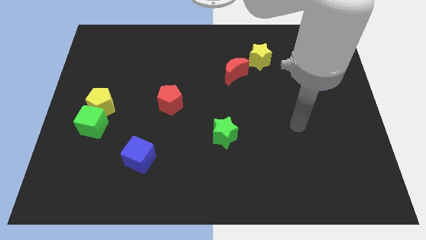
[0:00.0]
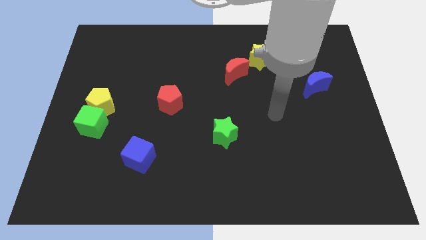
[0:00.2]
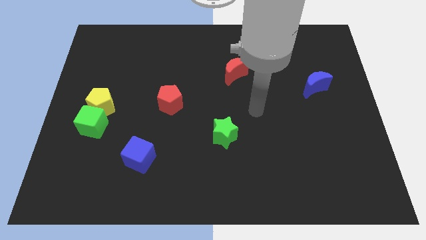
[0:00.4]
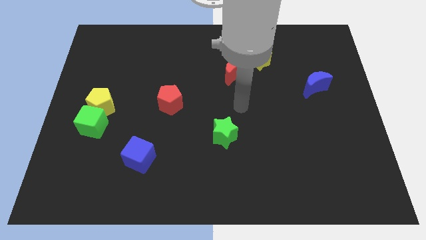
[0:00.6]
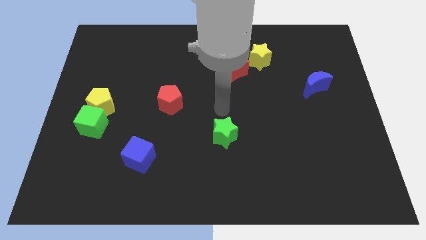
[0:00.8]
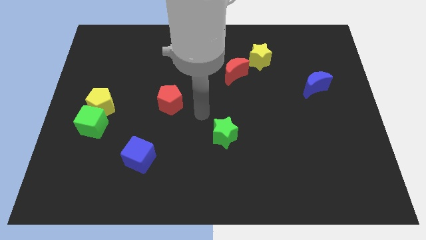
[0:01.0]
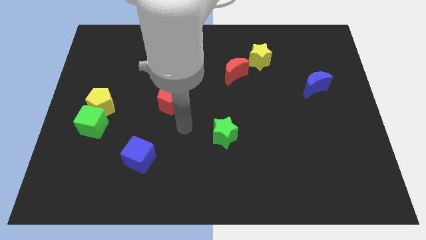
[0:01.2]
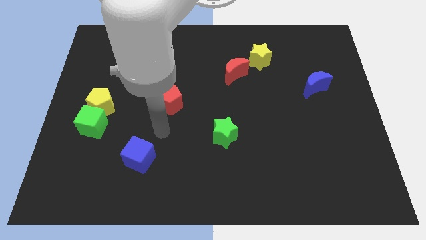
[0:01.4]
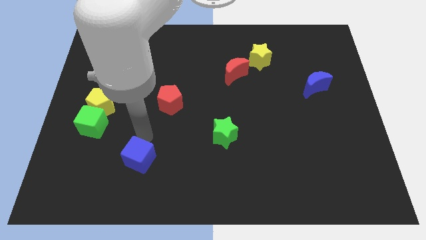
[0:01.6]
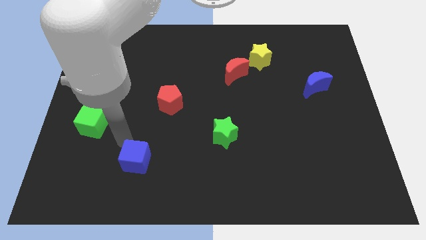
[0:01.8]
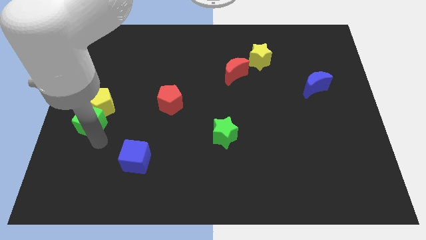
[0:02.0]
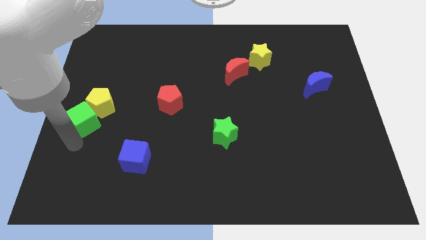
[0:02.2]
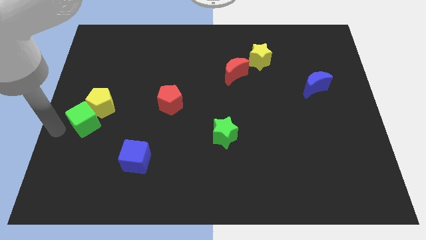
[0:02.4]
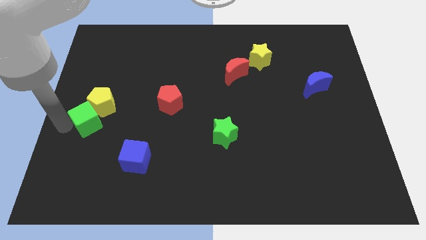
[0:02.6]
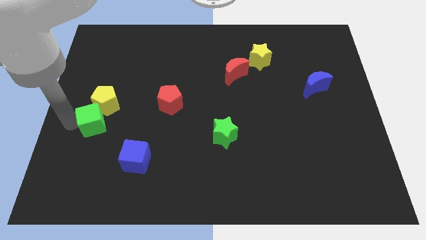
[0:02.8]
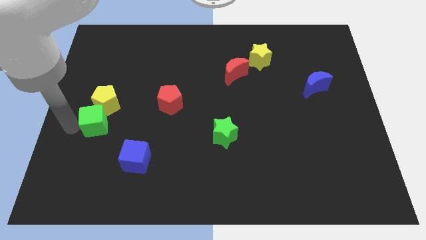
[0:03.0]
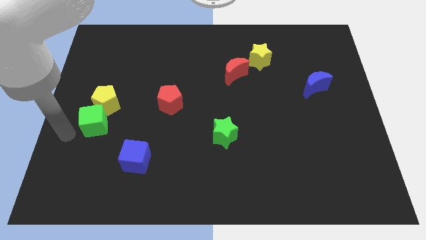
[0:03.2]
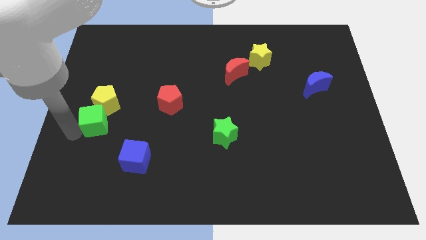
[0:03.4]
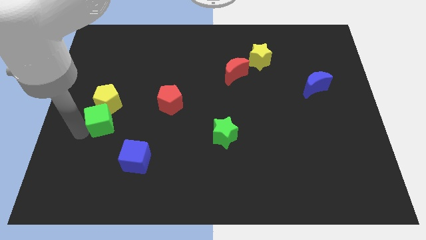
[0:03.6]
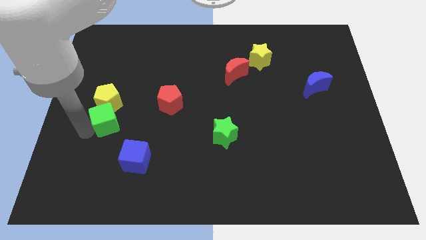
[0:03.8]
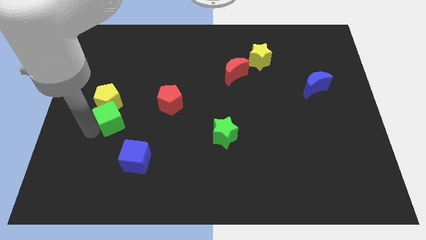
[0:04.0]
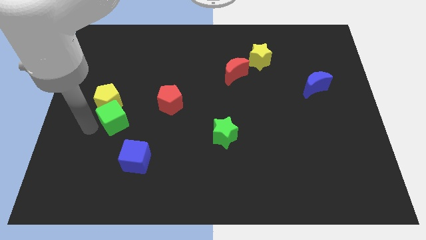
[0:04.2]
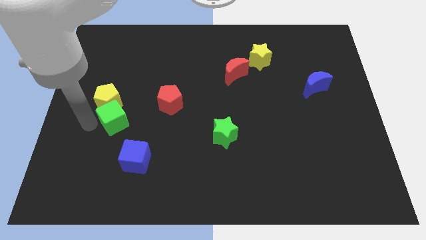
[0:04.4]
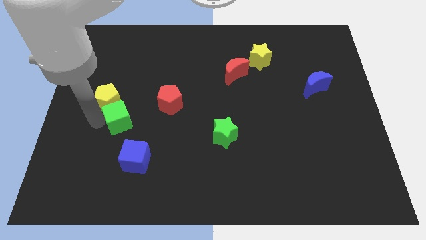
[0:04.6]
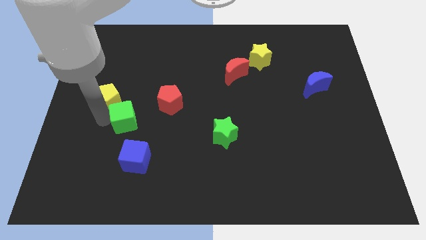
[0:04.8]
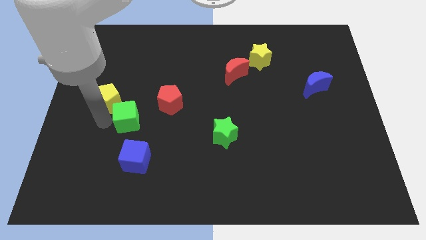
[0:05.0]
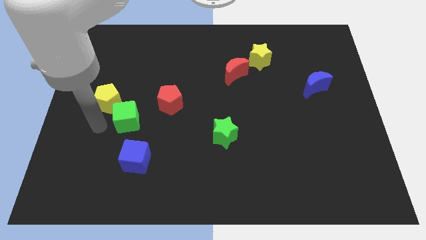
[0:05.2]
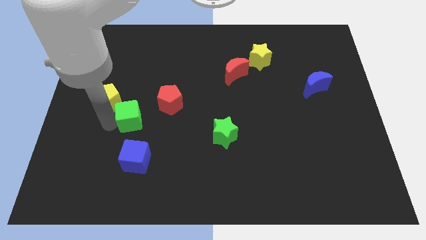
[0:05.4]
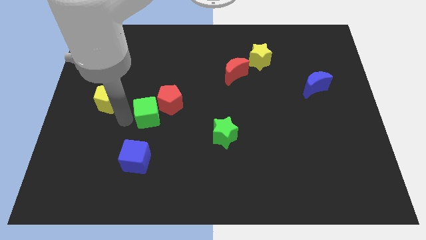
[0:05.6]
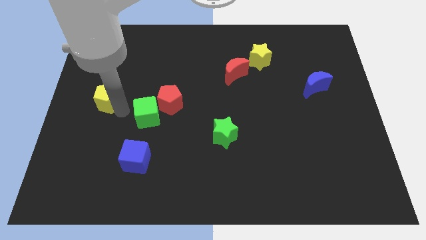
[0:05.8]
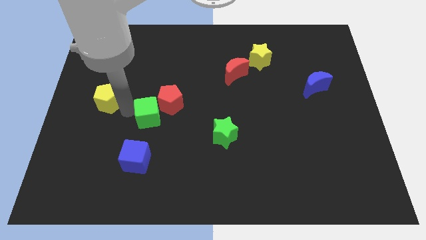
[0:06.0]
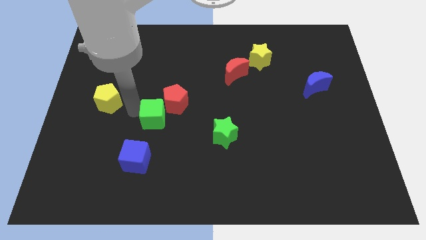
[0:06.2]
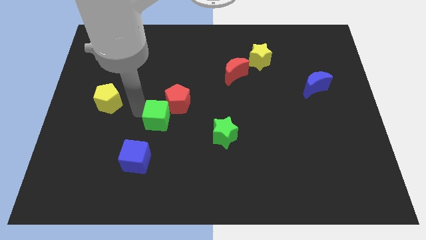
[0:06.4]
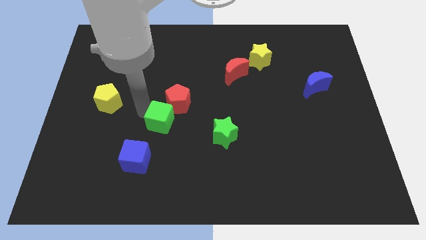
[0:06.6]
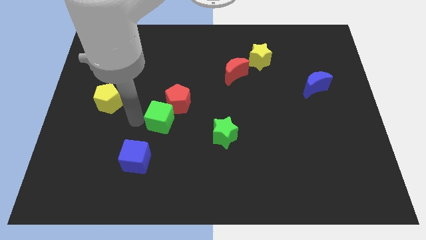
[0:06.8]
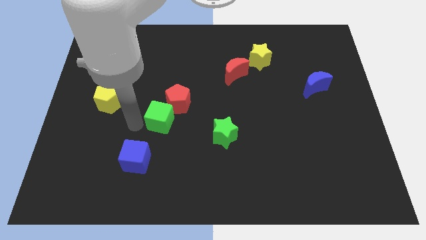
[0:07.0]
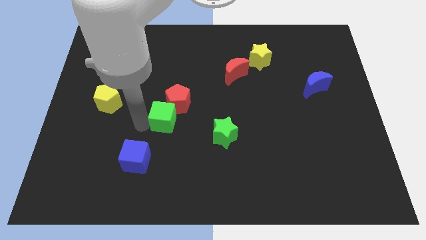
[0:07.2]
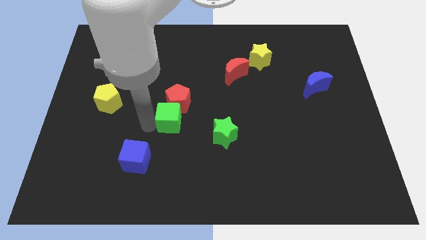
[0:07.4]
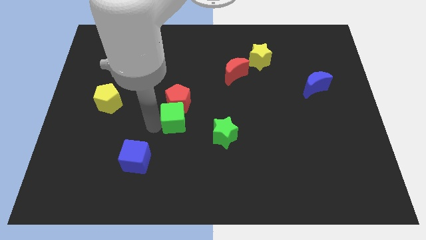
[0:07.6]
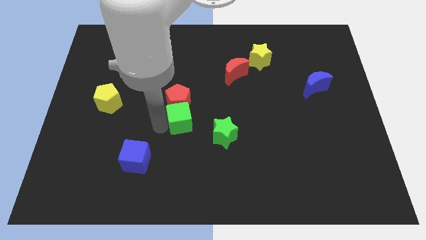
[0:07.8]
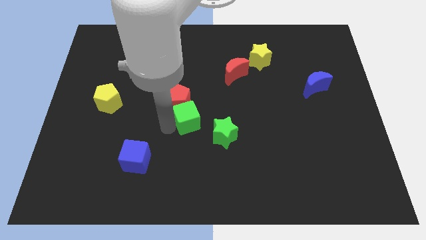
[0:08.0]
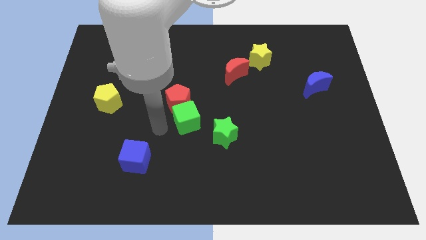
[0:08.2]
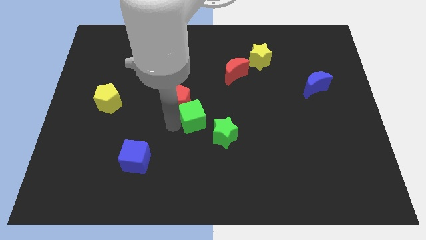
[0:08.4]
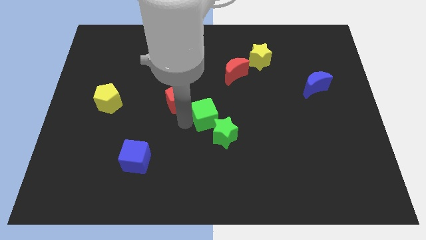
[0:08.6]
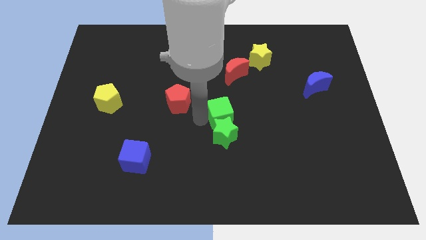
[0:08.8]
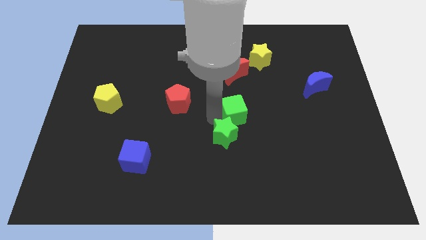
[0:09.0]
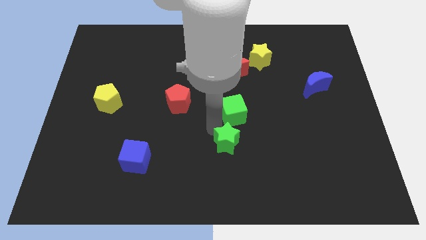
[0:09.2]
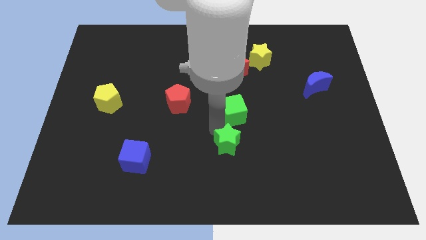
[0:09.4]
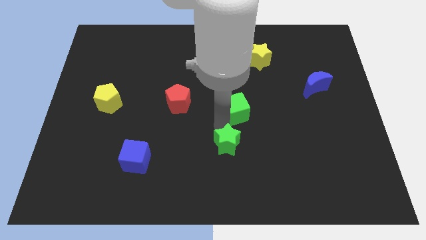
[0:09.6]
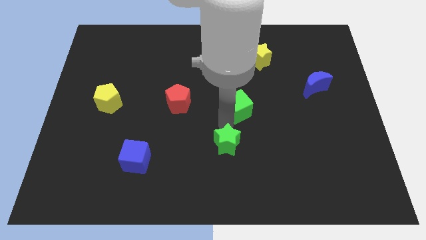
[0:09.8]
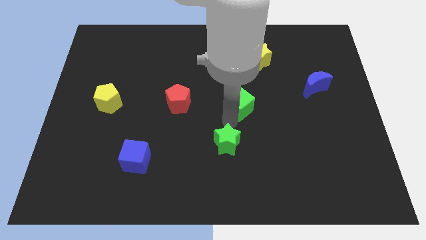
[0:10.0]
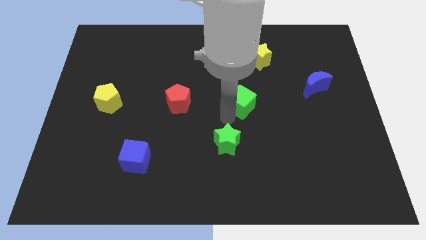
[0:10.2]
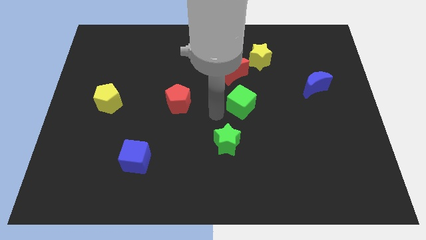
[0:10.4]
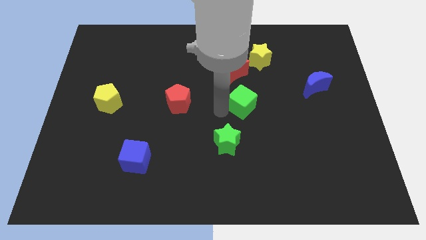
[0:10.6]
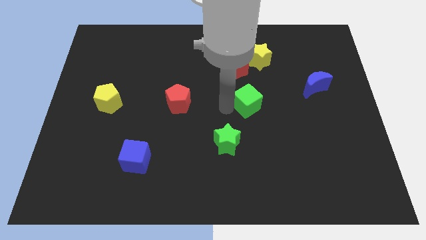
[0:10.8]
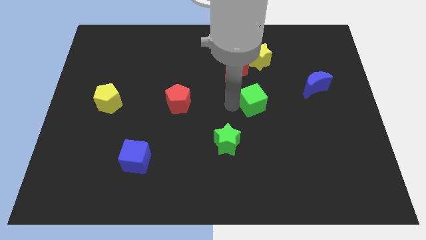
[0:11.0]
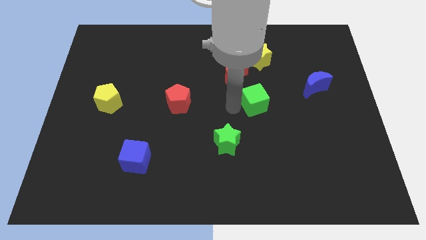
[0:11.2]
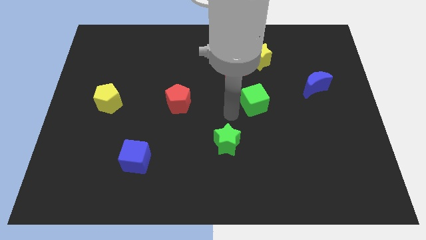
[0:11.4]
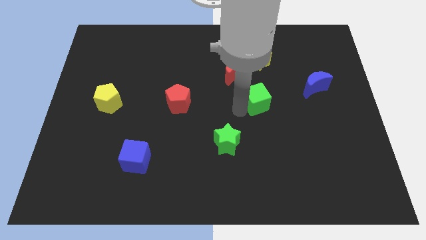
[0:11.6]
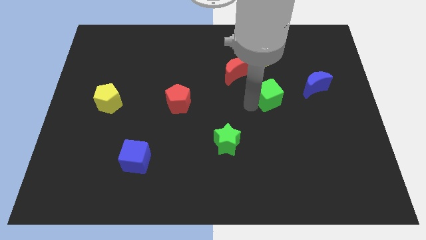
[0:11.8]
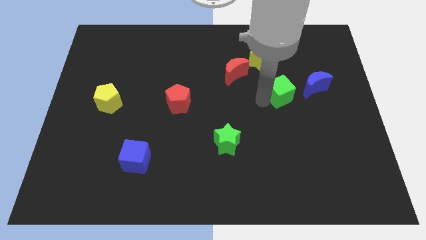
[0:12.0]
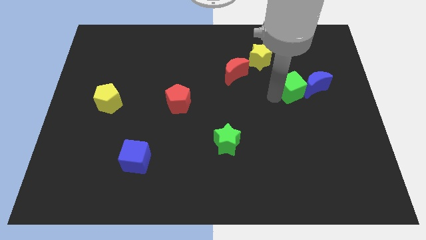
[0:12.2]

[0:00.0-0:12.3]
push the green cube to the blue moon

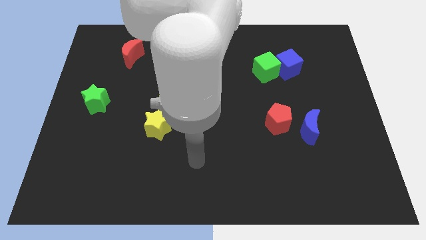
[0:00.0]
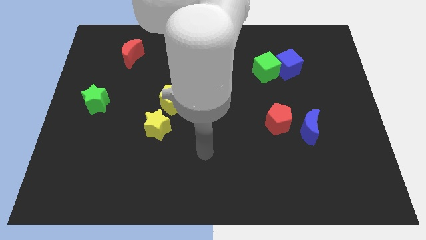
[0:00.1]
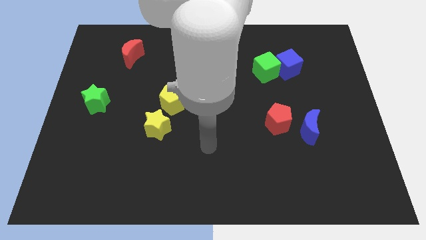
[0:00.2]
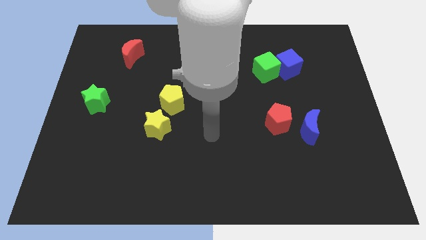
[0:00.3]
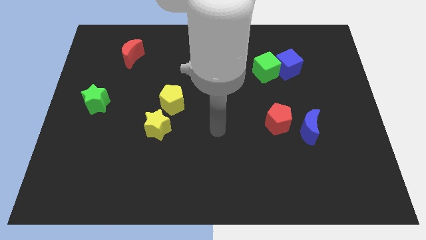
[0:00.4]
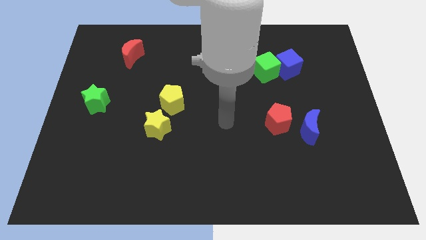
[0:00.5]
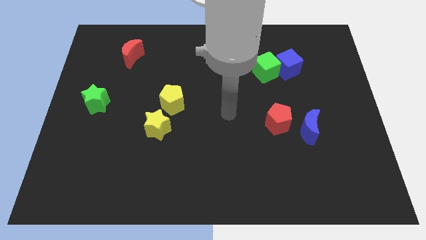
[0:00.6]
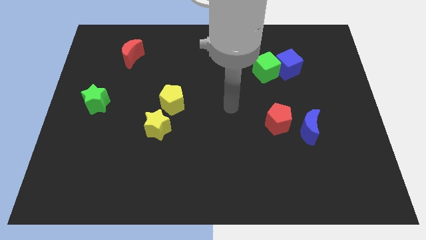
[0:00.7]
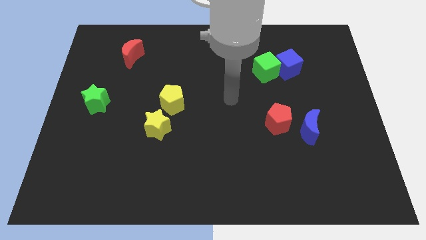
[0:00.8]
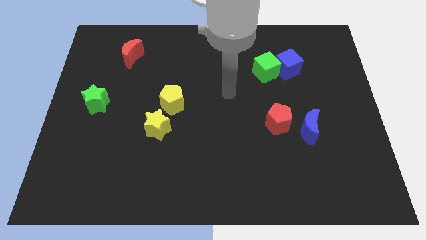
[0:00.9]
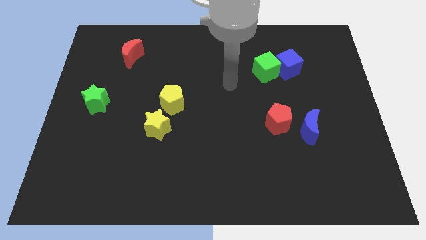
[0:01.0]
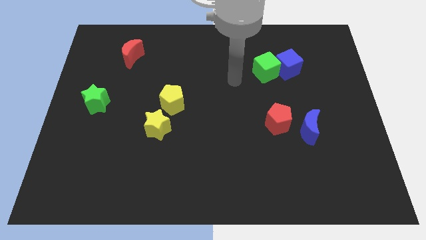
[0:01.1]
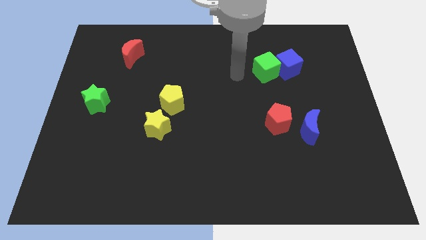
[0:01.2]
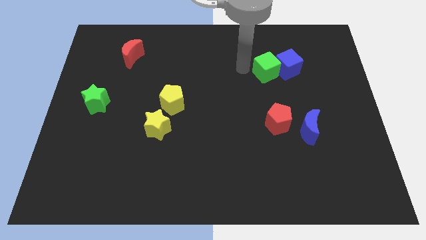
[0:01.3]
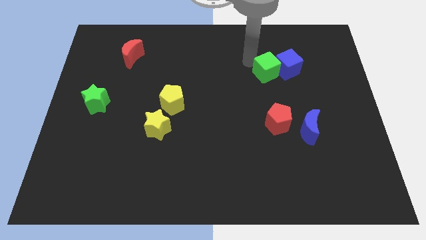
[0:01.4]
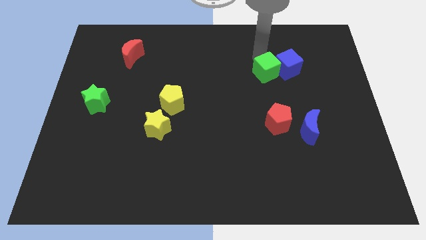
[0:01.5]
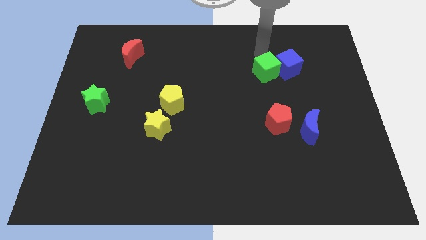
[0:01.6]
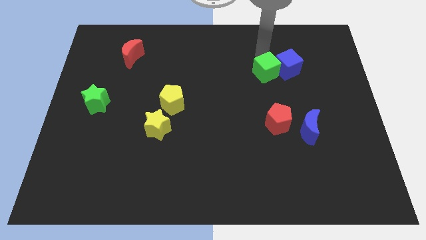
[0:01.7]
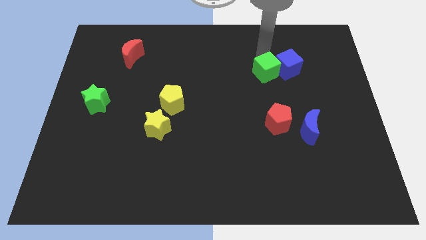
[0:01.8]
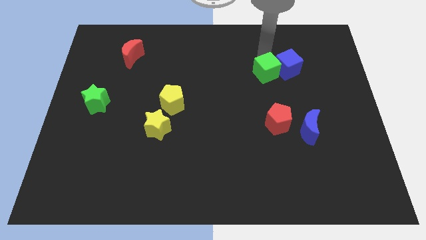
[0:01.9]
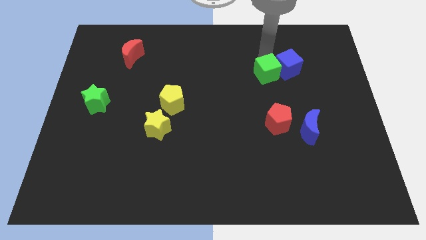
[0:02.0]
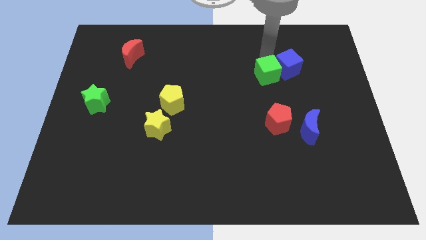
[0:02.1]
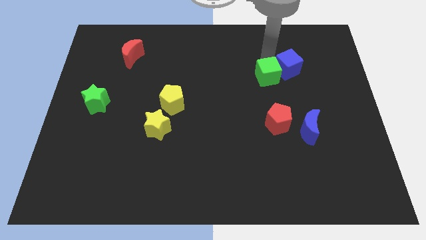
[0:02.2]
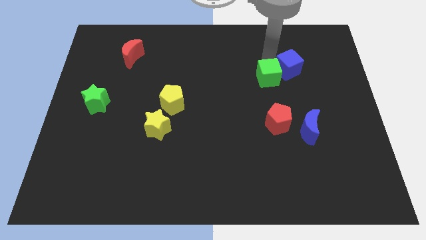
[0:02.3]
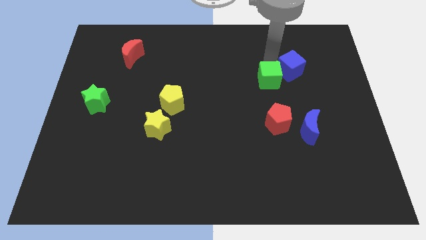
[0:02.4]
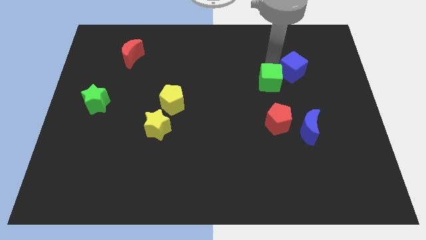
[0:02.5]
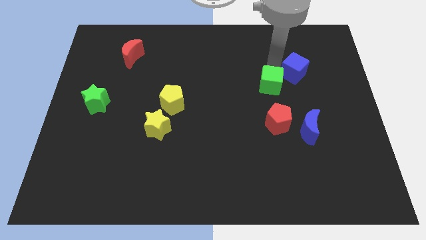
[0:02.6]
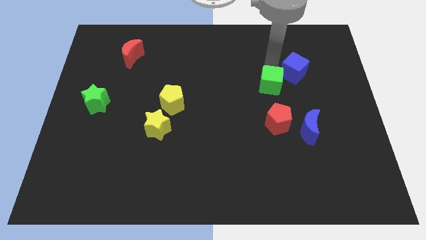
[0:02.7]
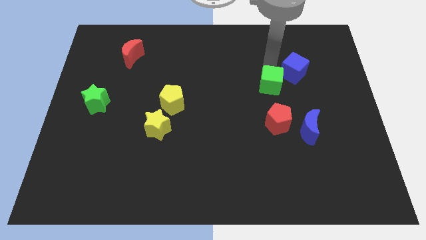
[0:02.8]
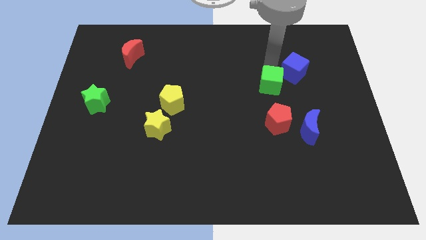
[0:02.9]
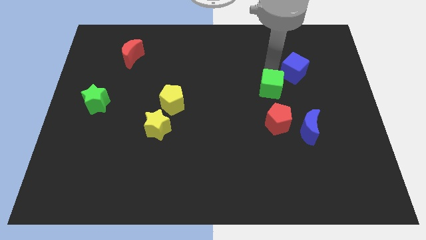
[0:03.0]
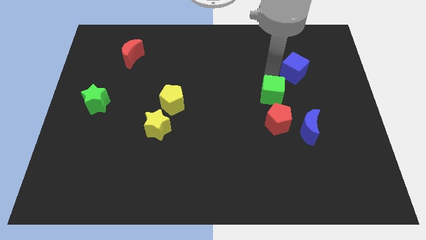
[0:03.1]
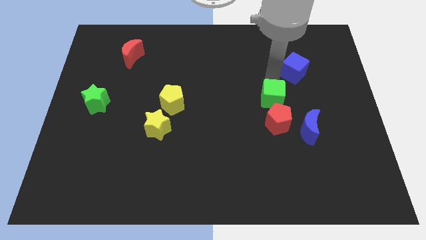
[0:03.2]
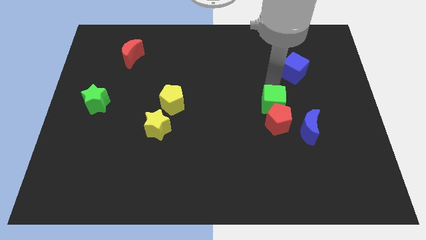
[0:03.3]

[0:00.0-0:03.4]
put the green cube to the red pentagon
